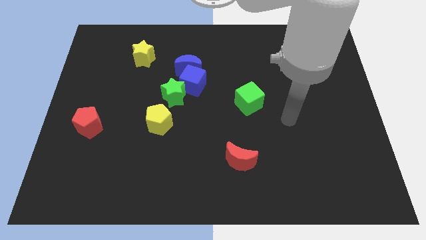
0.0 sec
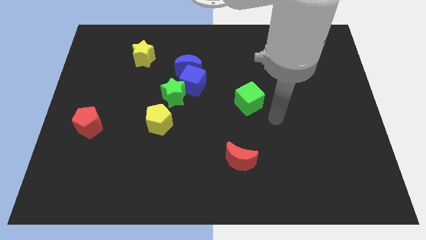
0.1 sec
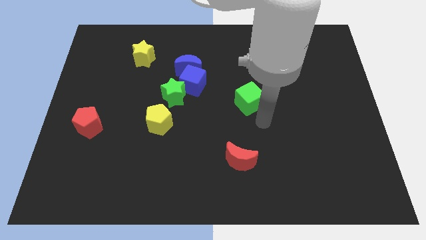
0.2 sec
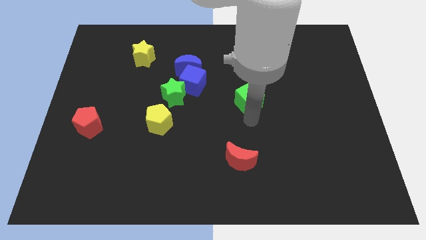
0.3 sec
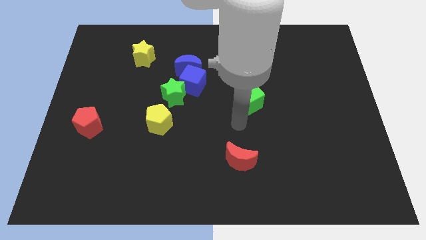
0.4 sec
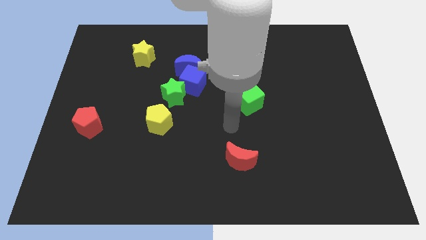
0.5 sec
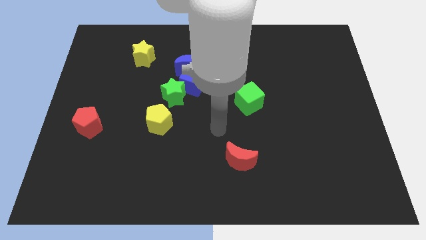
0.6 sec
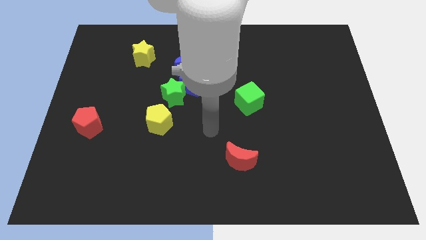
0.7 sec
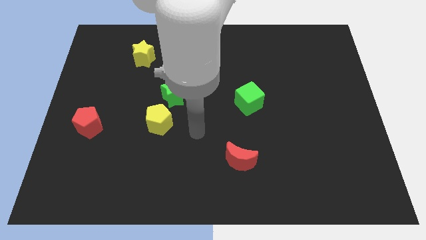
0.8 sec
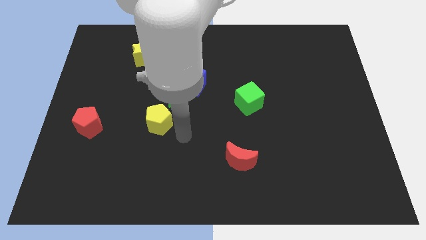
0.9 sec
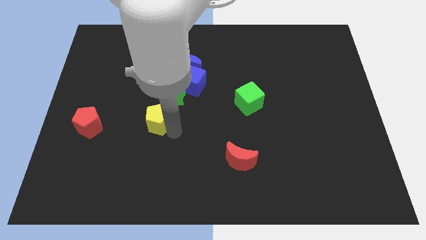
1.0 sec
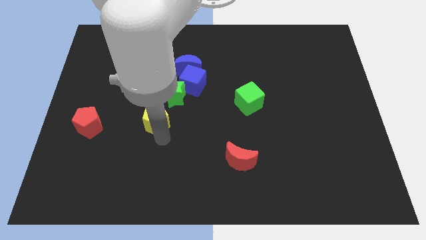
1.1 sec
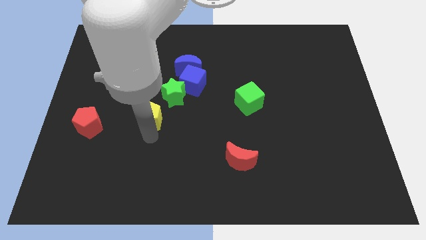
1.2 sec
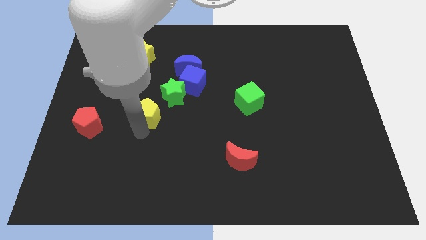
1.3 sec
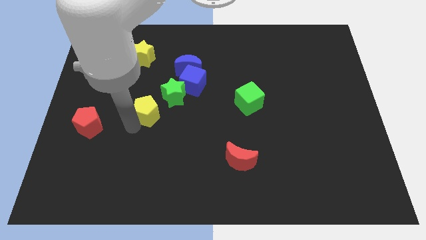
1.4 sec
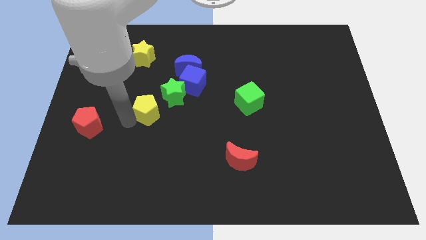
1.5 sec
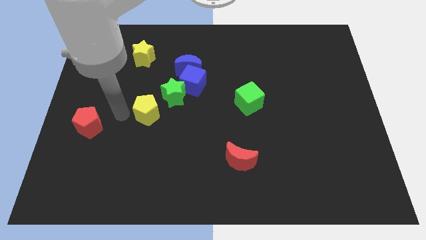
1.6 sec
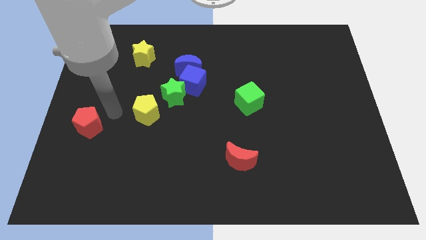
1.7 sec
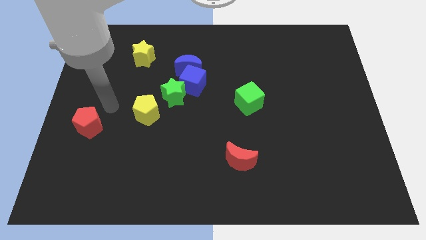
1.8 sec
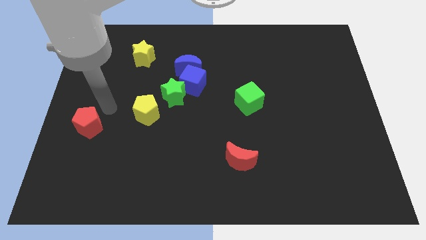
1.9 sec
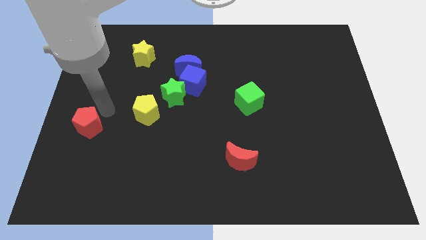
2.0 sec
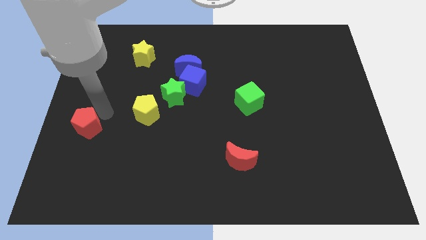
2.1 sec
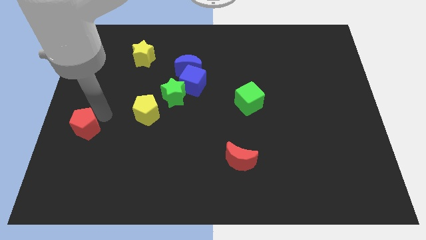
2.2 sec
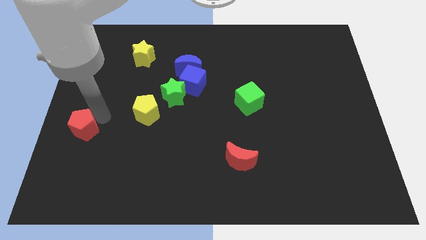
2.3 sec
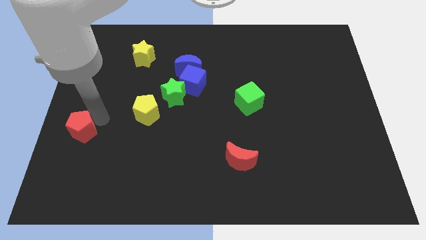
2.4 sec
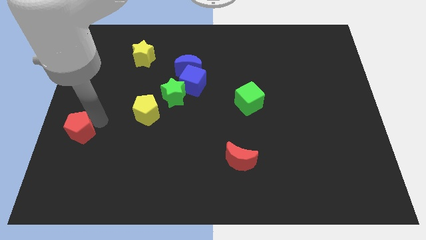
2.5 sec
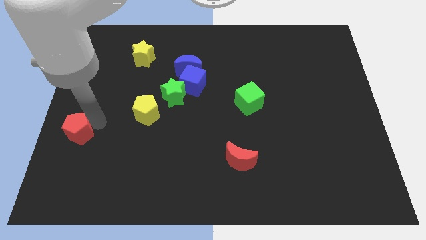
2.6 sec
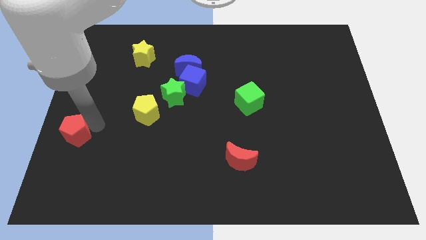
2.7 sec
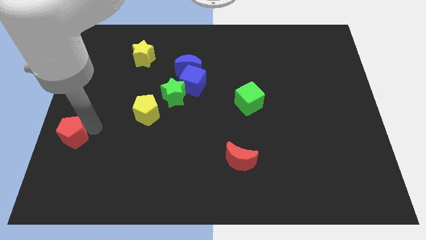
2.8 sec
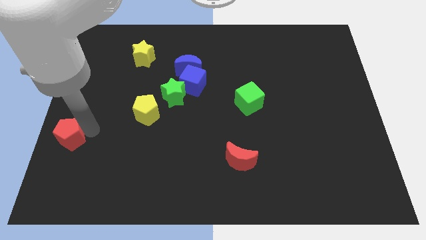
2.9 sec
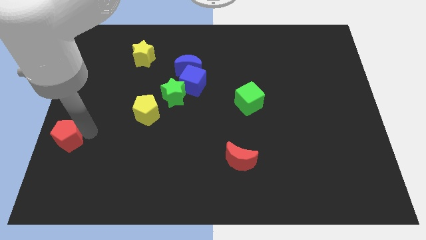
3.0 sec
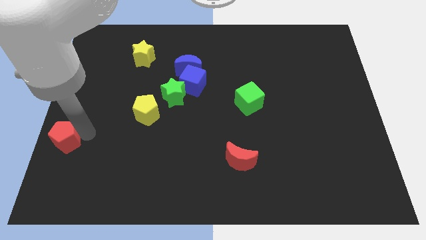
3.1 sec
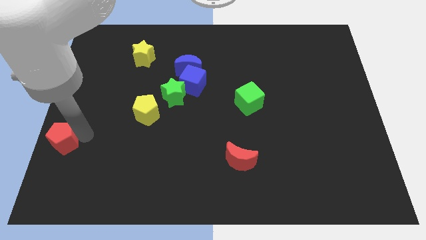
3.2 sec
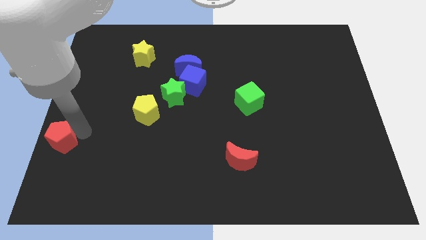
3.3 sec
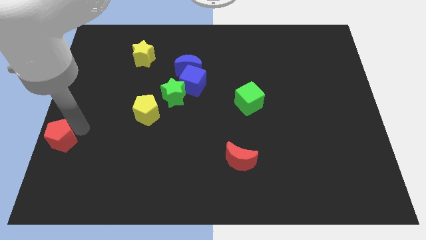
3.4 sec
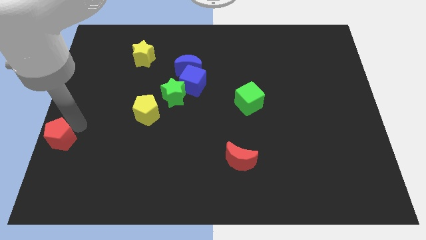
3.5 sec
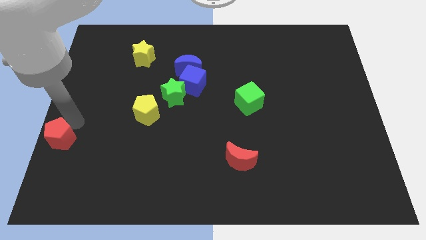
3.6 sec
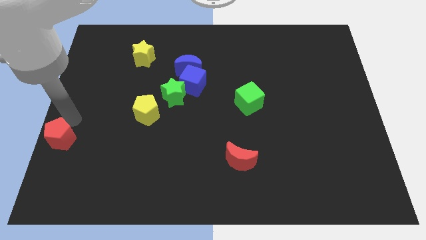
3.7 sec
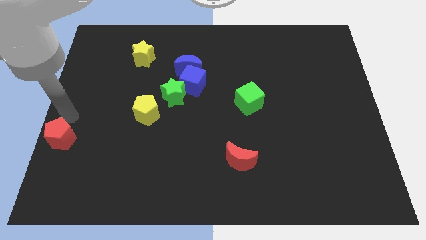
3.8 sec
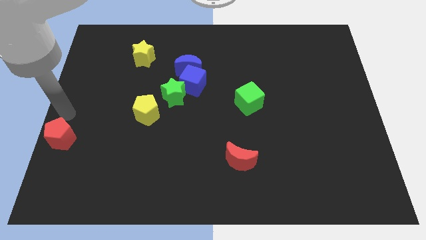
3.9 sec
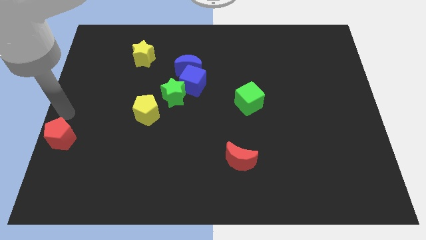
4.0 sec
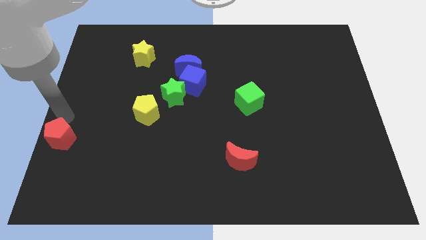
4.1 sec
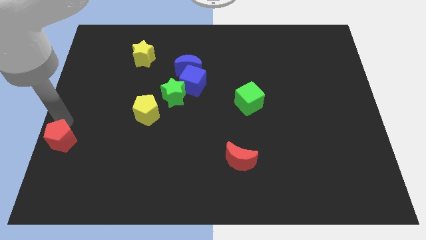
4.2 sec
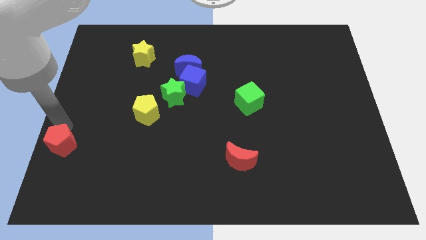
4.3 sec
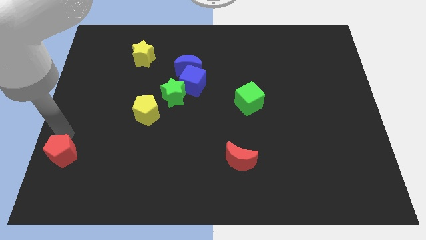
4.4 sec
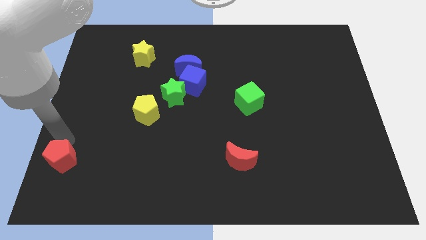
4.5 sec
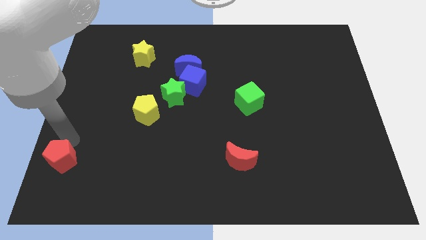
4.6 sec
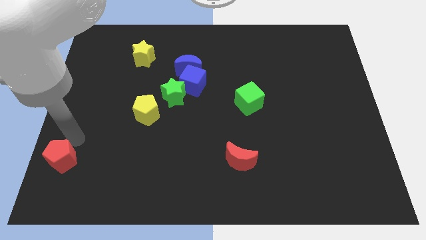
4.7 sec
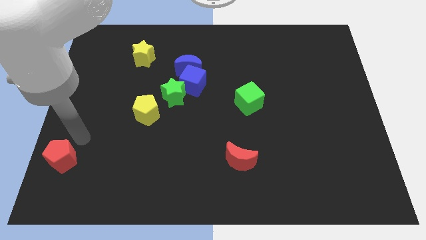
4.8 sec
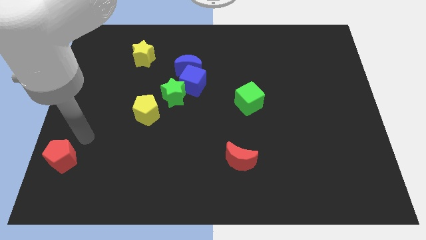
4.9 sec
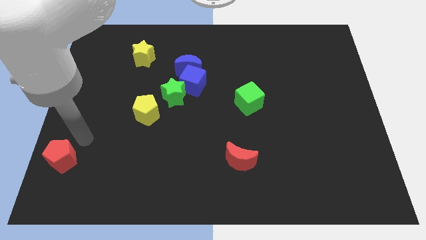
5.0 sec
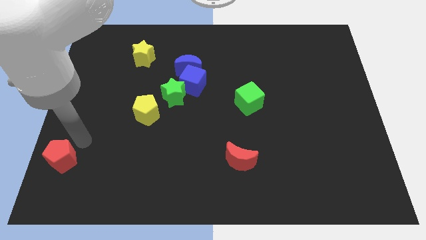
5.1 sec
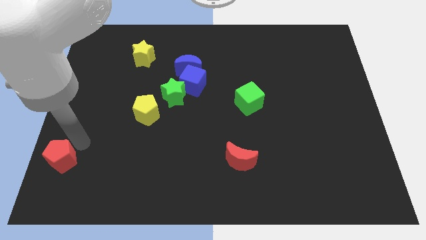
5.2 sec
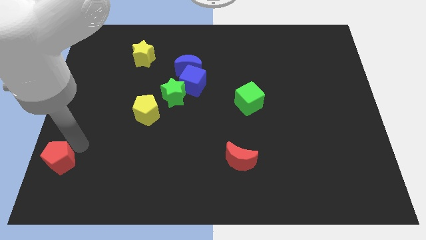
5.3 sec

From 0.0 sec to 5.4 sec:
put the red pentagon to the bottom left corner

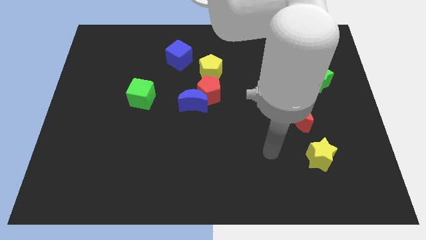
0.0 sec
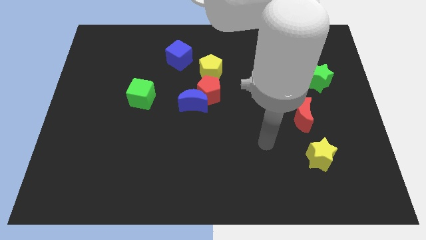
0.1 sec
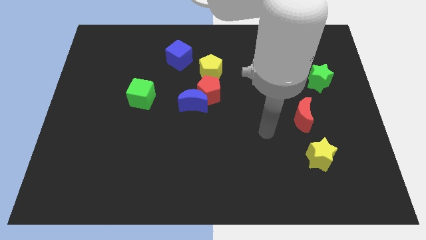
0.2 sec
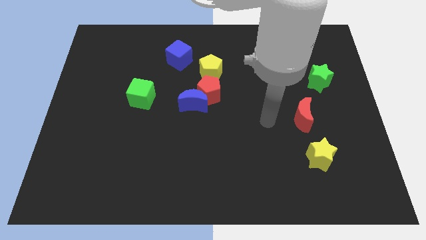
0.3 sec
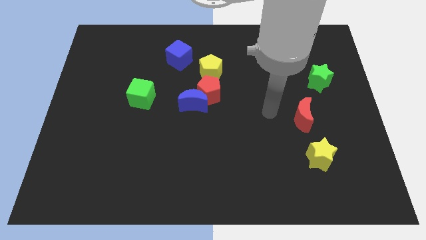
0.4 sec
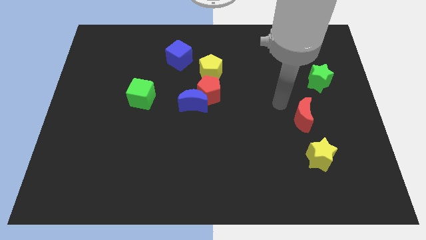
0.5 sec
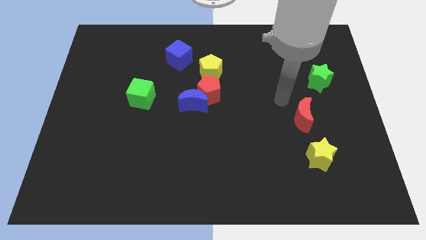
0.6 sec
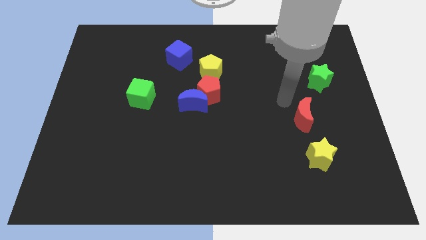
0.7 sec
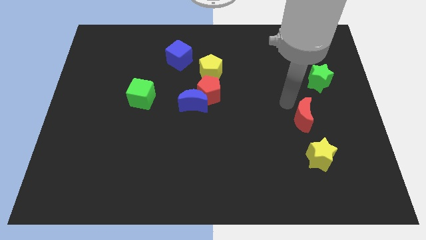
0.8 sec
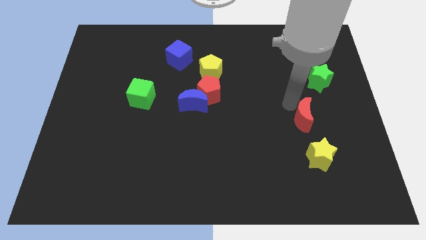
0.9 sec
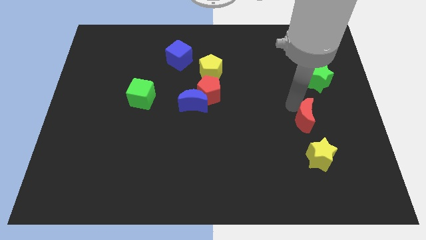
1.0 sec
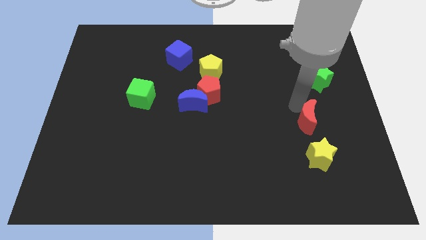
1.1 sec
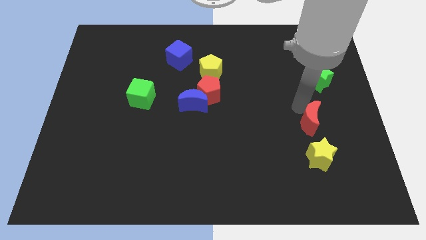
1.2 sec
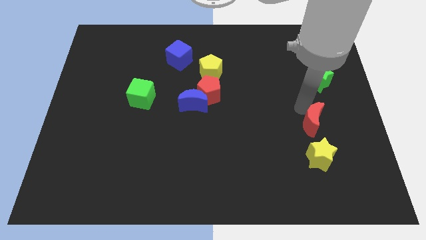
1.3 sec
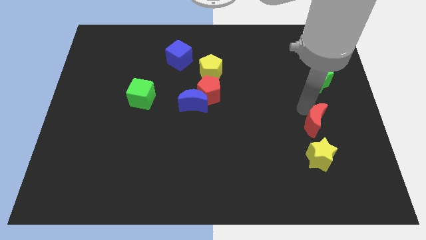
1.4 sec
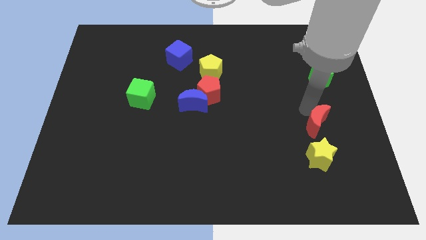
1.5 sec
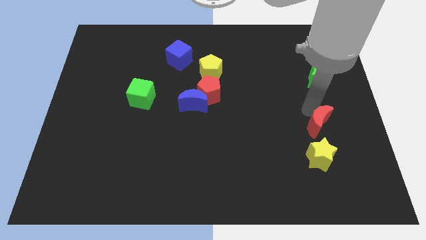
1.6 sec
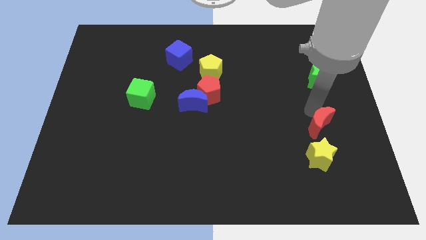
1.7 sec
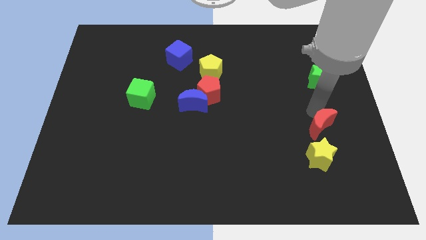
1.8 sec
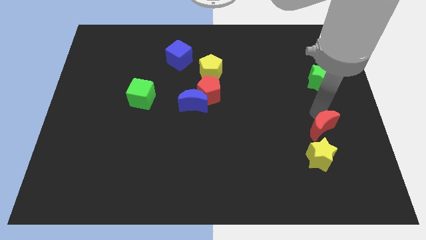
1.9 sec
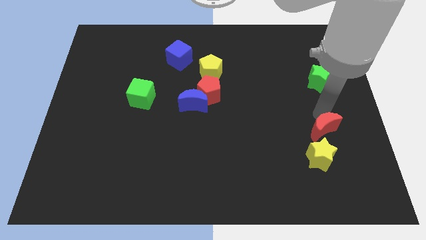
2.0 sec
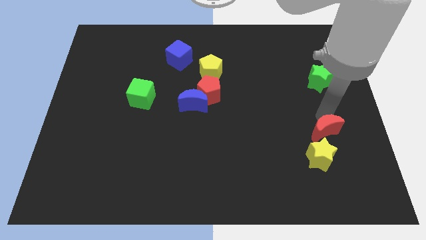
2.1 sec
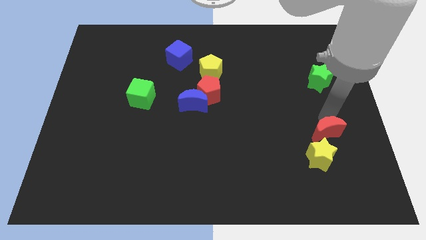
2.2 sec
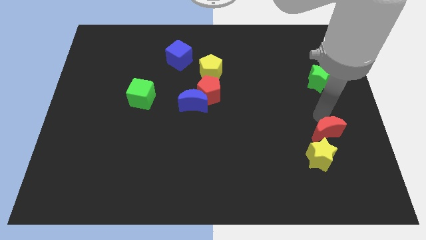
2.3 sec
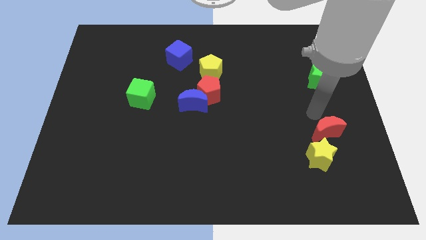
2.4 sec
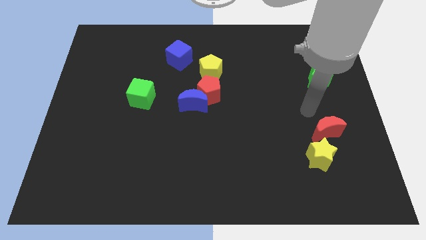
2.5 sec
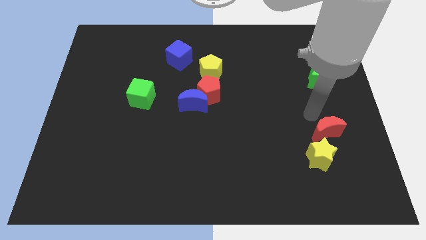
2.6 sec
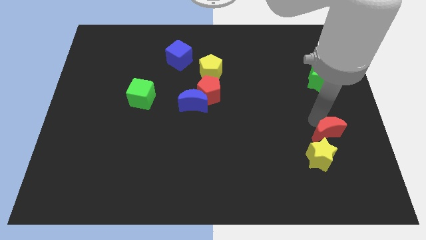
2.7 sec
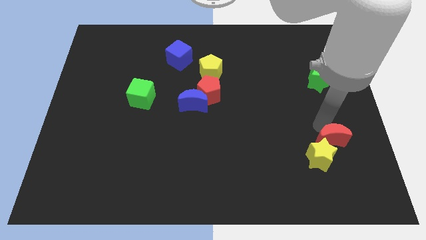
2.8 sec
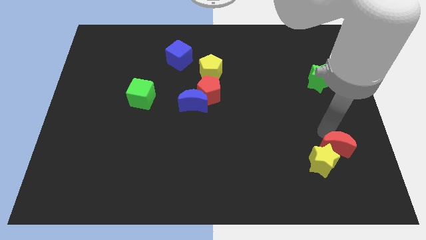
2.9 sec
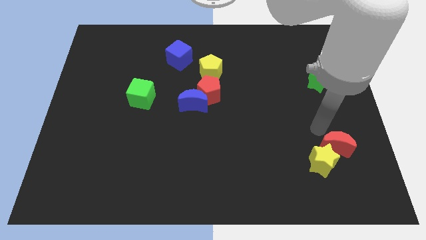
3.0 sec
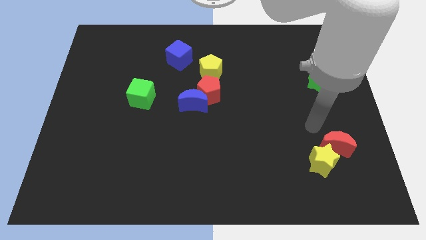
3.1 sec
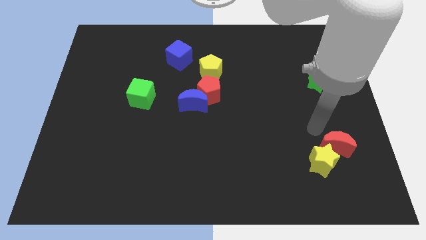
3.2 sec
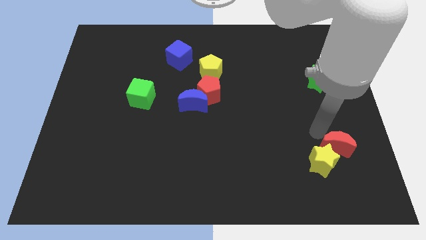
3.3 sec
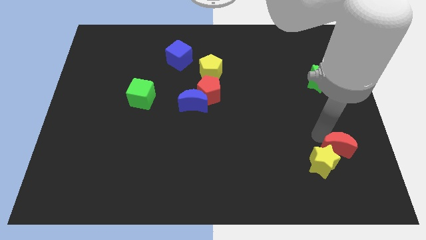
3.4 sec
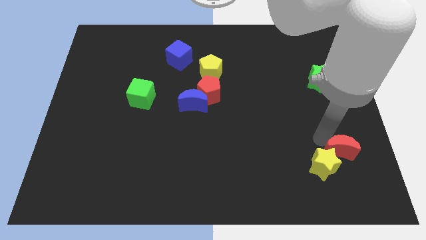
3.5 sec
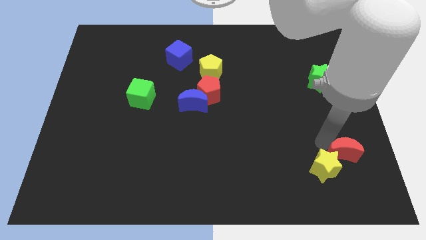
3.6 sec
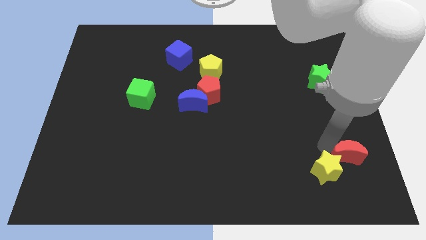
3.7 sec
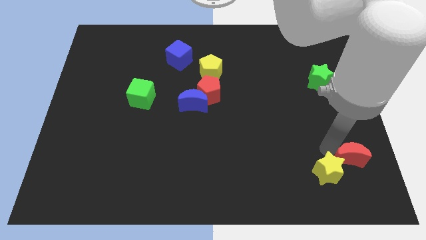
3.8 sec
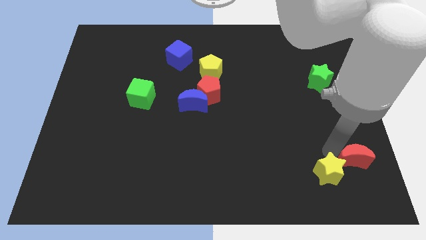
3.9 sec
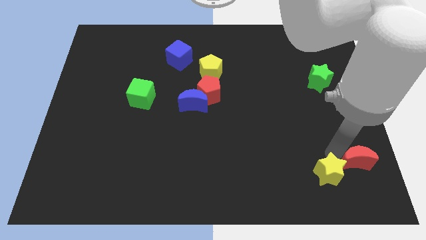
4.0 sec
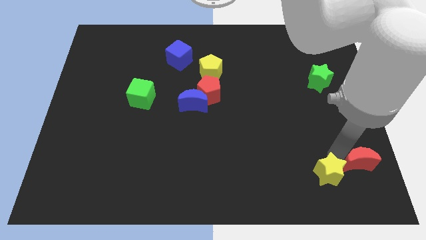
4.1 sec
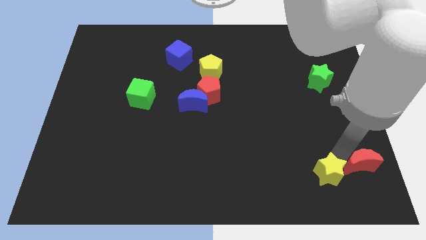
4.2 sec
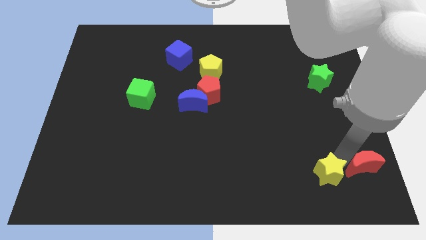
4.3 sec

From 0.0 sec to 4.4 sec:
put the red moon to the bottom right of the board
